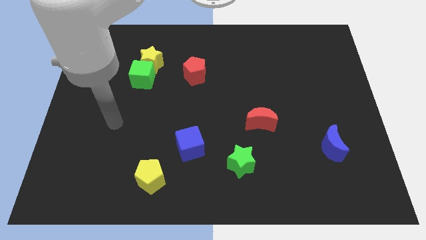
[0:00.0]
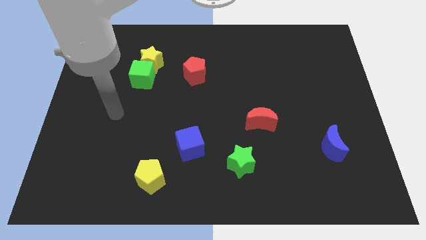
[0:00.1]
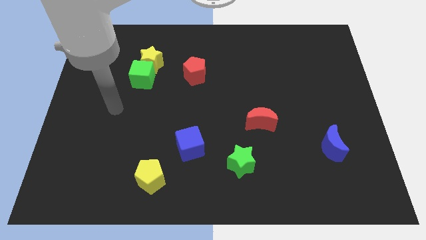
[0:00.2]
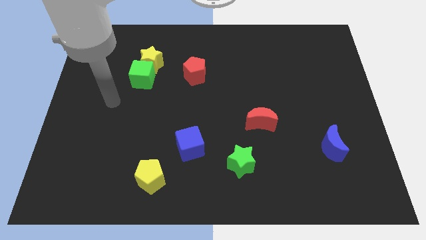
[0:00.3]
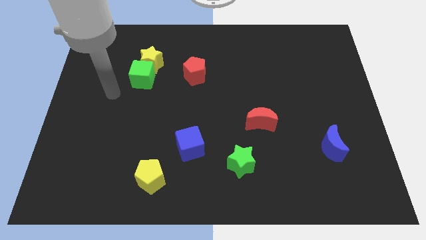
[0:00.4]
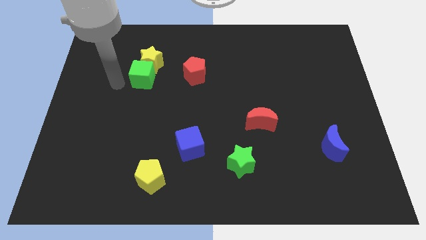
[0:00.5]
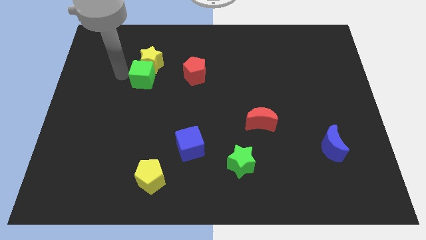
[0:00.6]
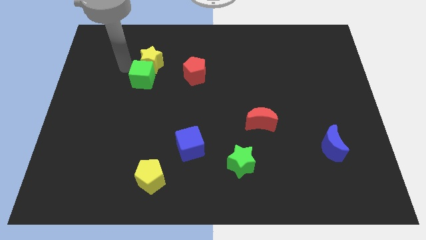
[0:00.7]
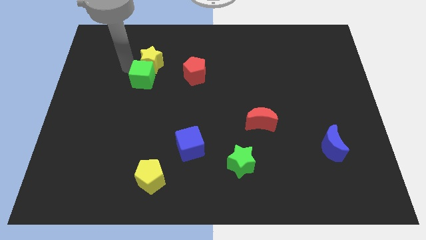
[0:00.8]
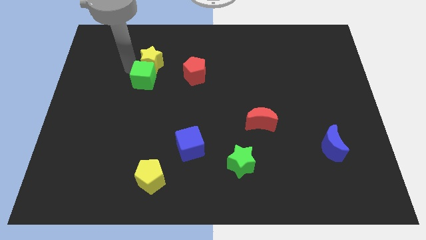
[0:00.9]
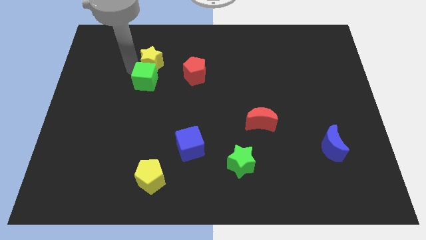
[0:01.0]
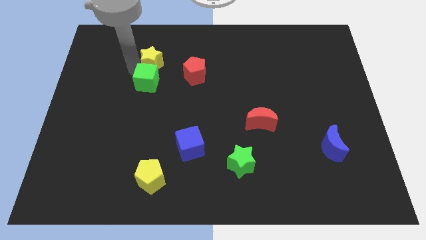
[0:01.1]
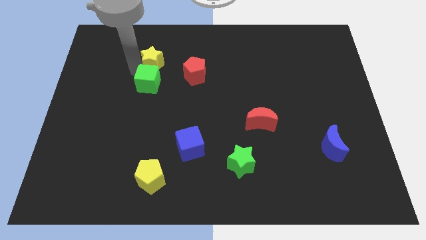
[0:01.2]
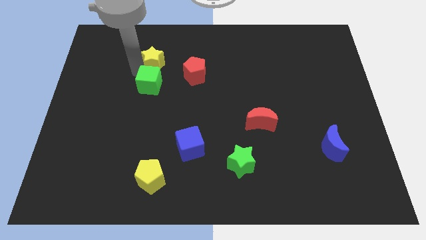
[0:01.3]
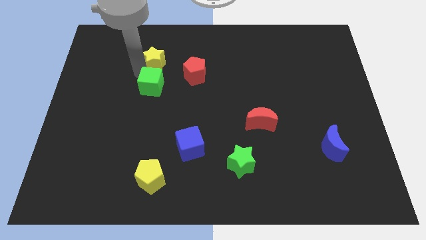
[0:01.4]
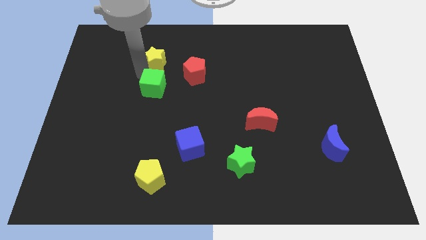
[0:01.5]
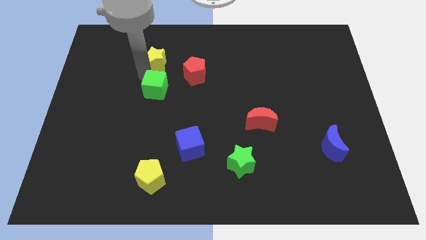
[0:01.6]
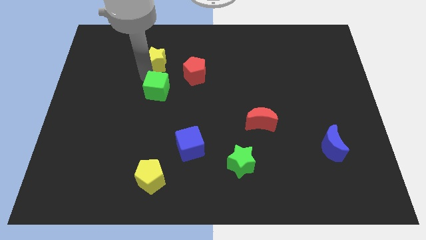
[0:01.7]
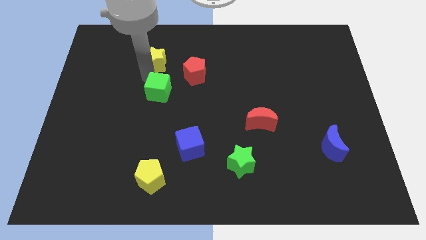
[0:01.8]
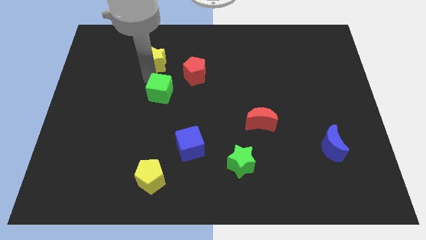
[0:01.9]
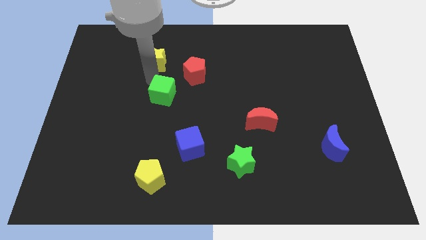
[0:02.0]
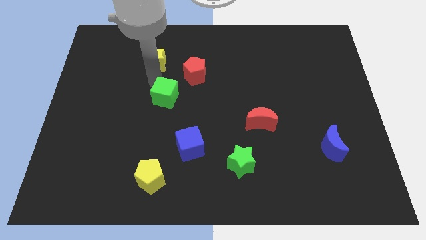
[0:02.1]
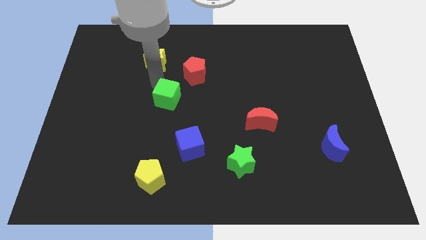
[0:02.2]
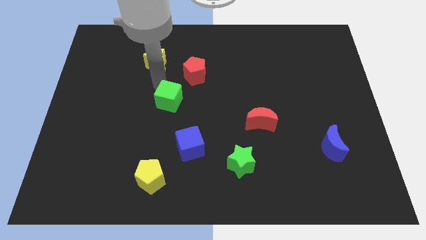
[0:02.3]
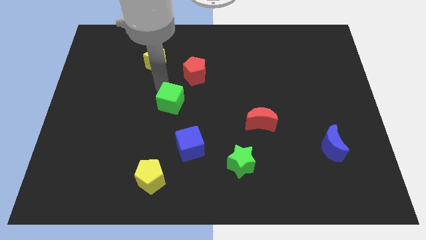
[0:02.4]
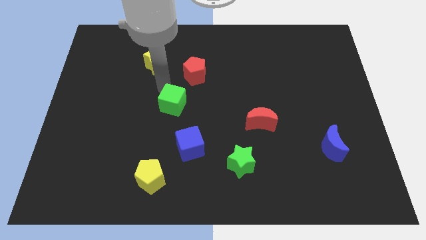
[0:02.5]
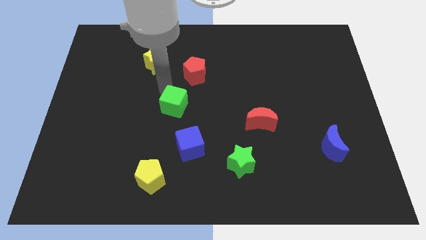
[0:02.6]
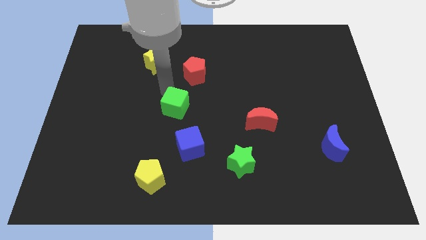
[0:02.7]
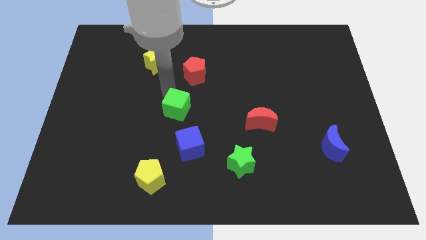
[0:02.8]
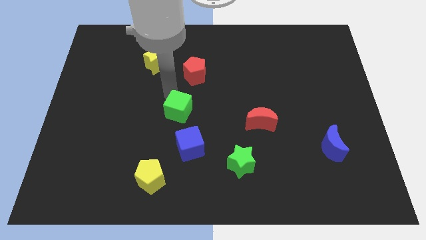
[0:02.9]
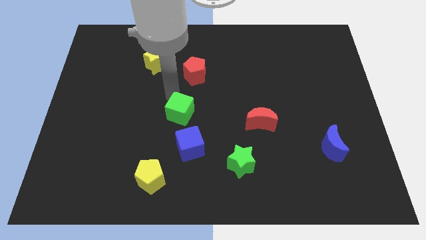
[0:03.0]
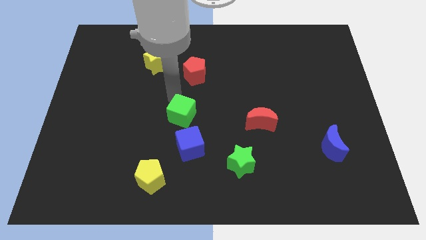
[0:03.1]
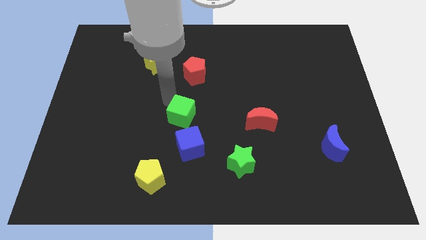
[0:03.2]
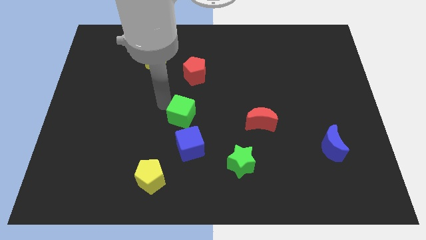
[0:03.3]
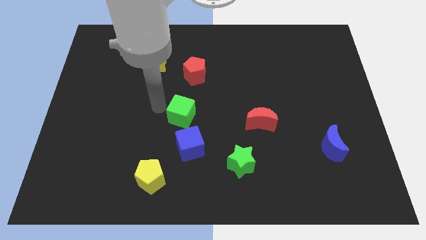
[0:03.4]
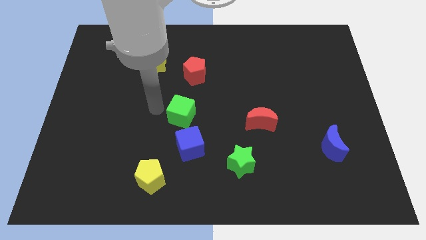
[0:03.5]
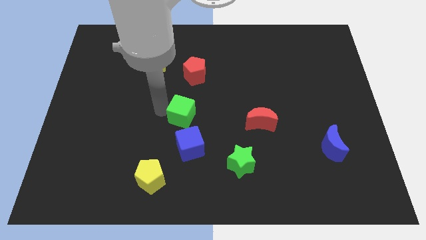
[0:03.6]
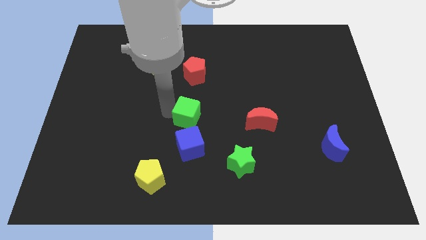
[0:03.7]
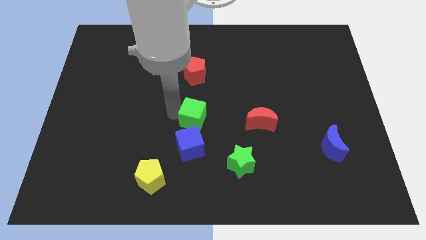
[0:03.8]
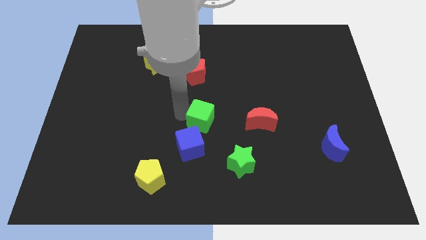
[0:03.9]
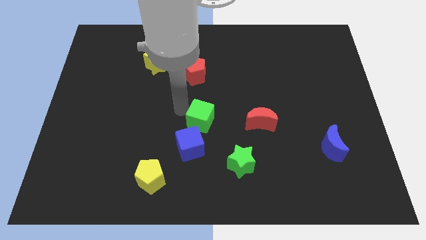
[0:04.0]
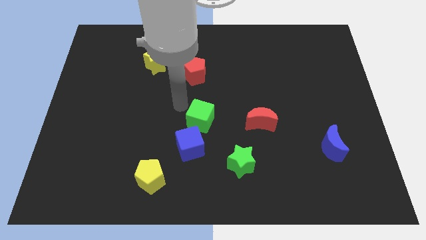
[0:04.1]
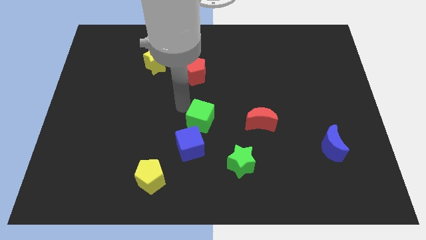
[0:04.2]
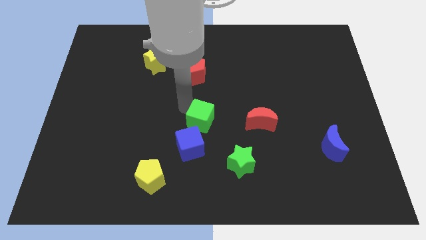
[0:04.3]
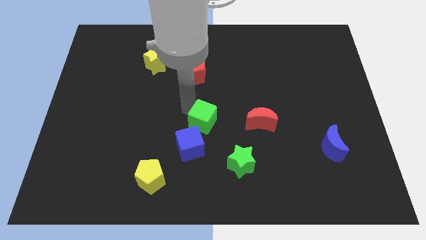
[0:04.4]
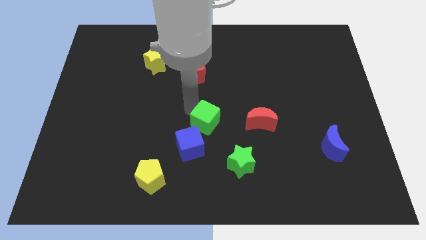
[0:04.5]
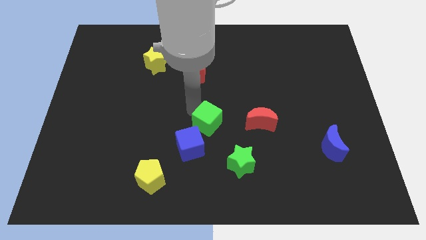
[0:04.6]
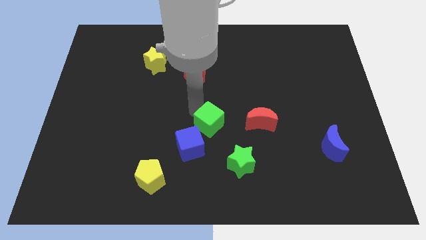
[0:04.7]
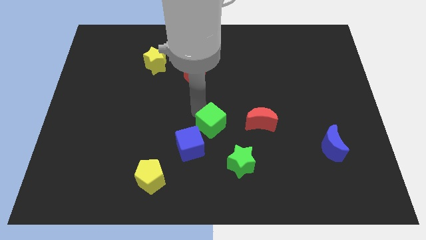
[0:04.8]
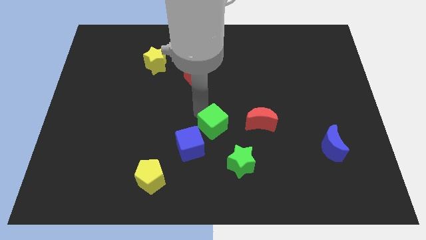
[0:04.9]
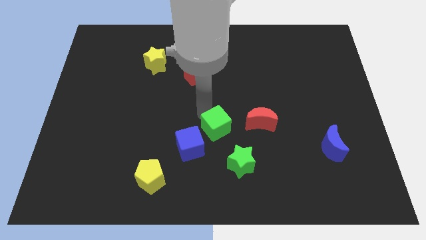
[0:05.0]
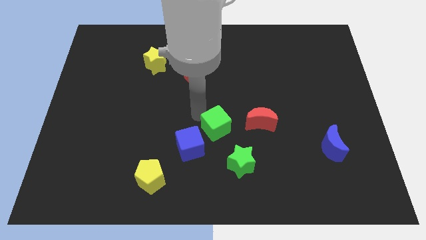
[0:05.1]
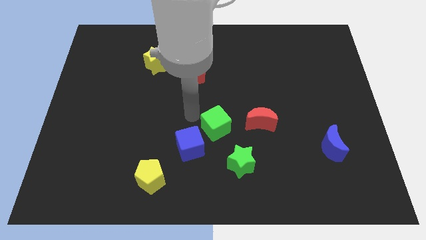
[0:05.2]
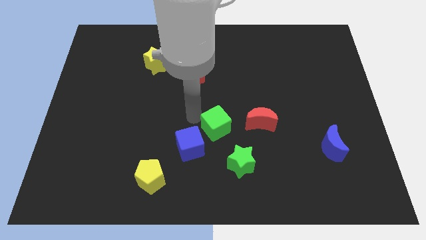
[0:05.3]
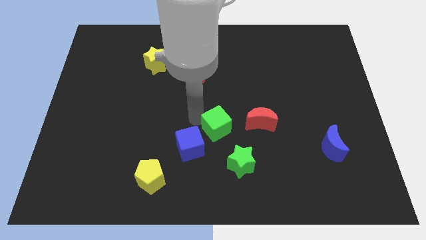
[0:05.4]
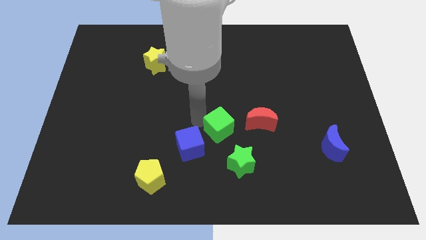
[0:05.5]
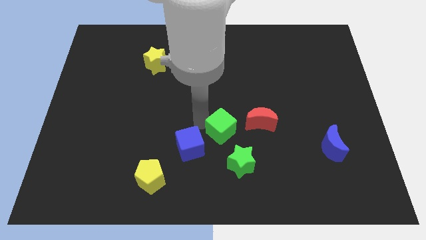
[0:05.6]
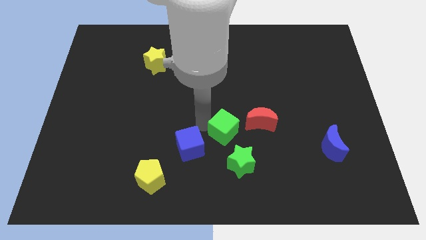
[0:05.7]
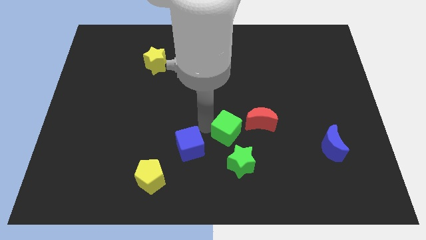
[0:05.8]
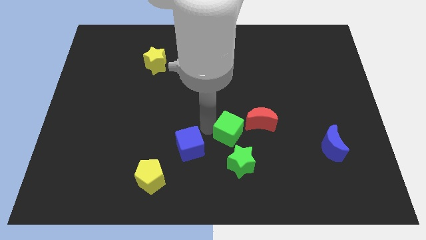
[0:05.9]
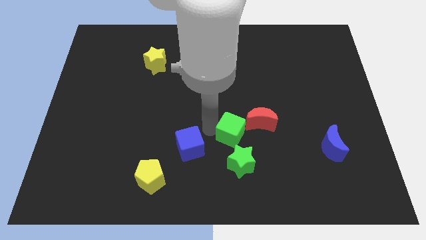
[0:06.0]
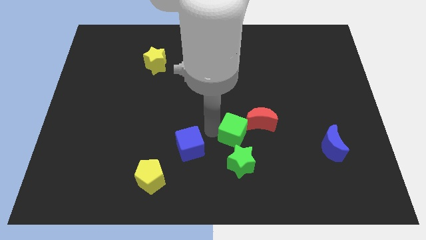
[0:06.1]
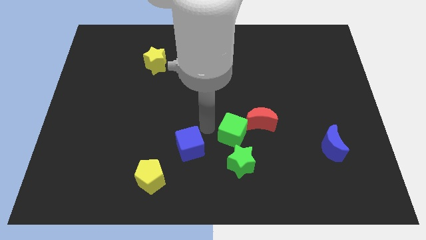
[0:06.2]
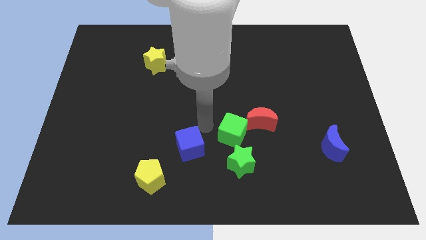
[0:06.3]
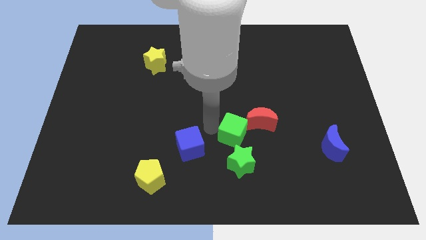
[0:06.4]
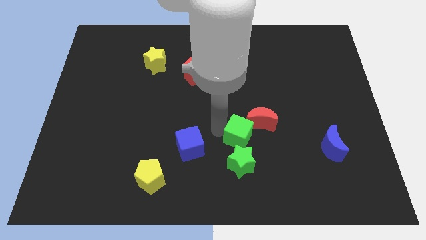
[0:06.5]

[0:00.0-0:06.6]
move the green cube diagonally up and to the right of the green star

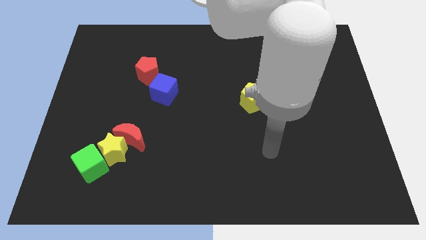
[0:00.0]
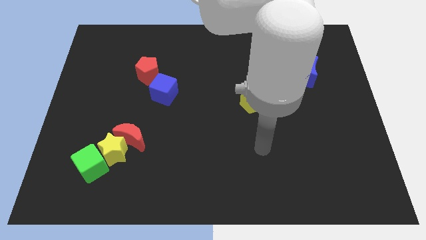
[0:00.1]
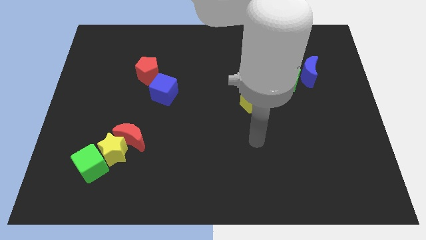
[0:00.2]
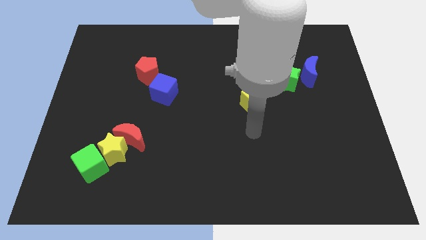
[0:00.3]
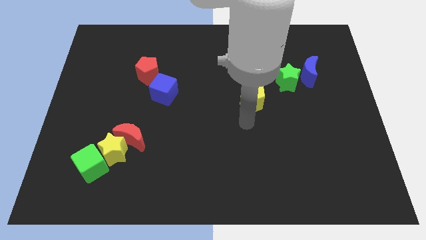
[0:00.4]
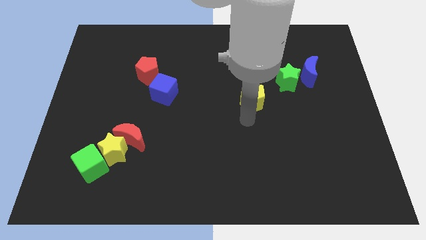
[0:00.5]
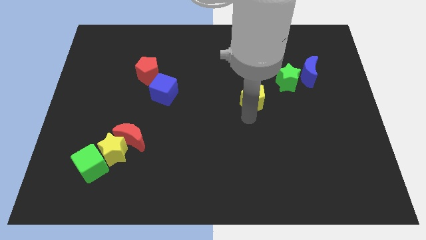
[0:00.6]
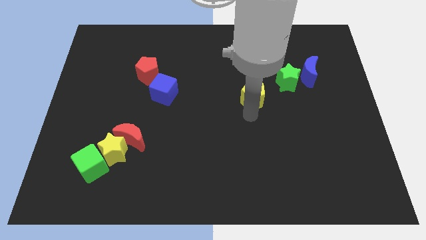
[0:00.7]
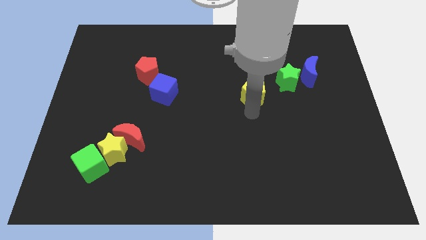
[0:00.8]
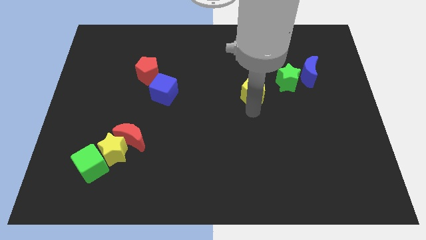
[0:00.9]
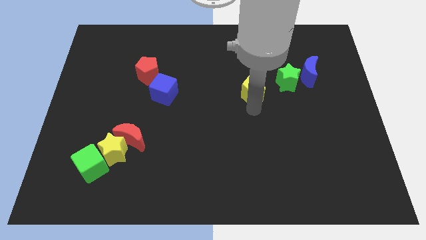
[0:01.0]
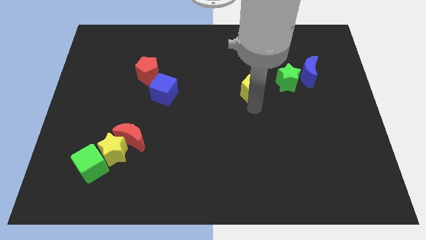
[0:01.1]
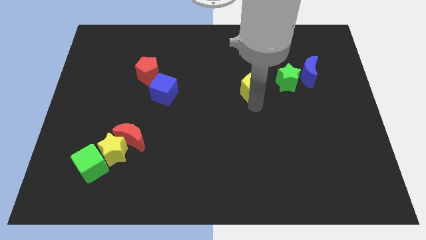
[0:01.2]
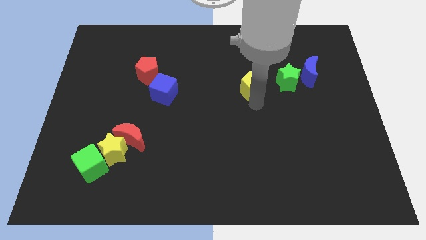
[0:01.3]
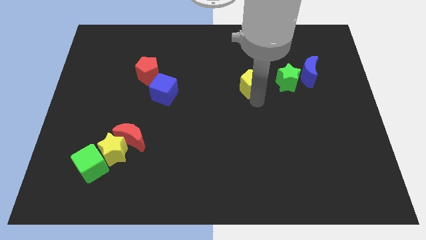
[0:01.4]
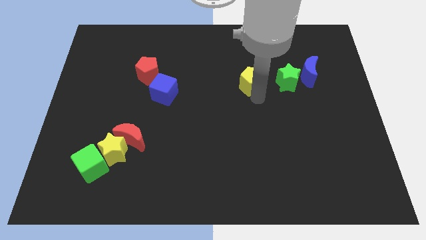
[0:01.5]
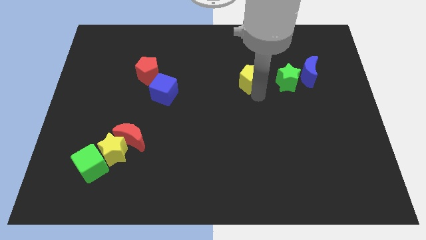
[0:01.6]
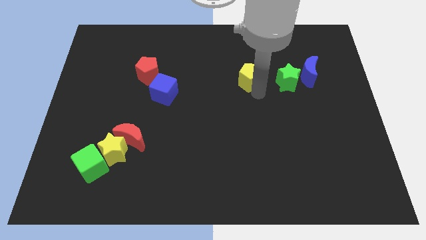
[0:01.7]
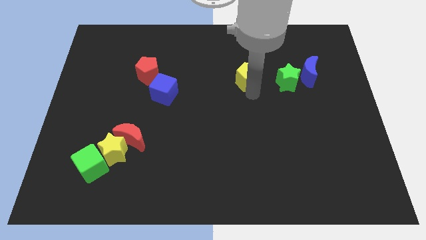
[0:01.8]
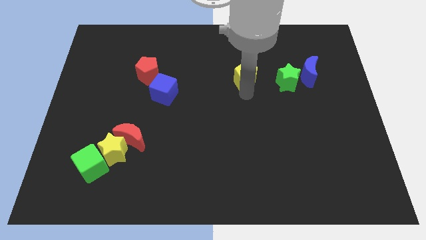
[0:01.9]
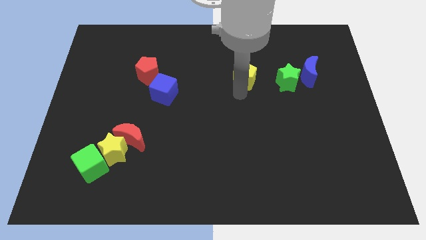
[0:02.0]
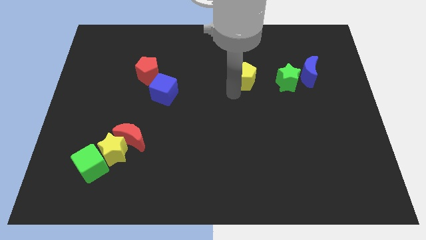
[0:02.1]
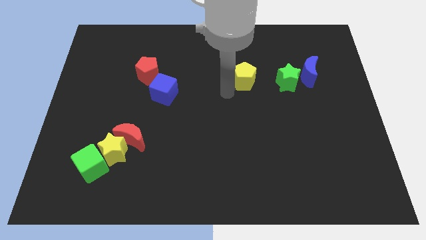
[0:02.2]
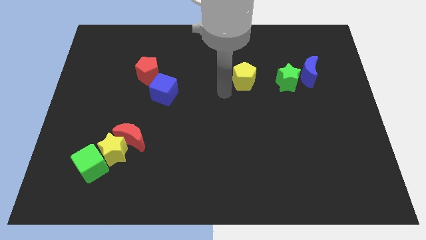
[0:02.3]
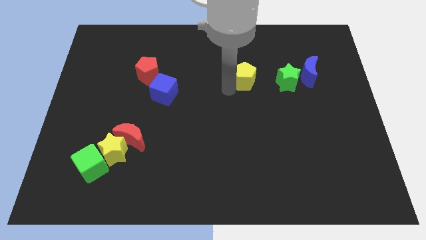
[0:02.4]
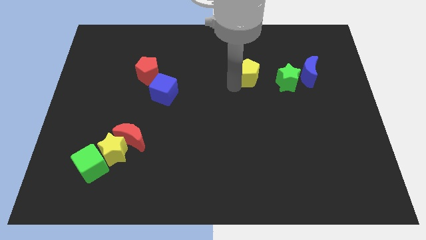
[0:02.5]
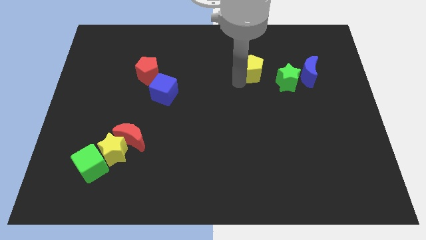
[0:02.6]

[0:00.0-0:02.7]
slide the yellow pentagon diagonally up and to the left of the green star
